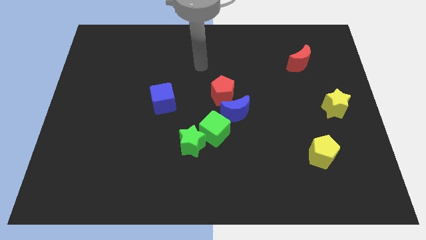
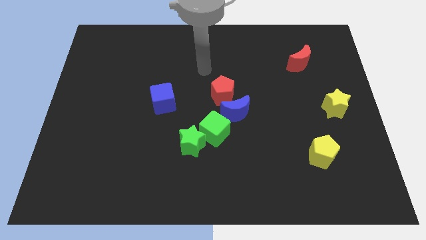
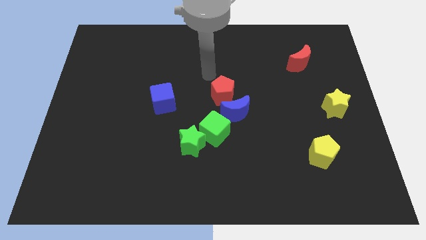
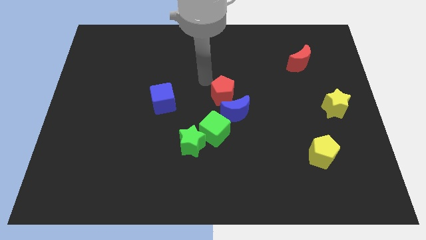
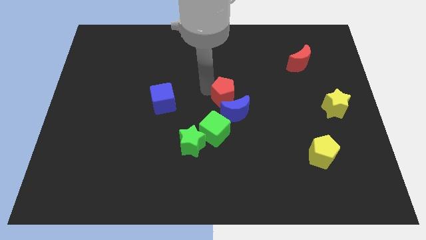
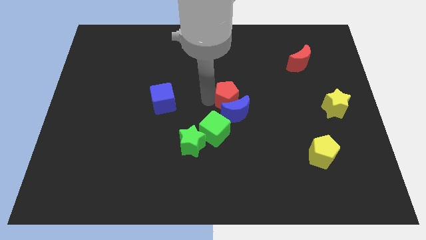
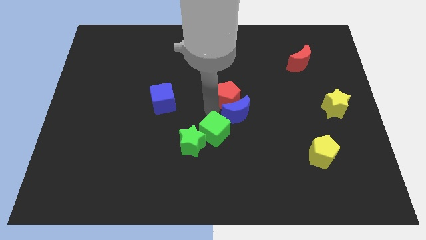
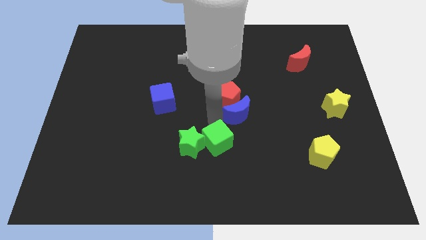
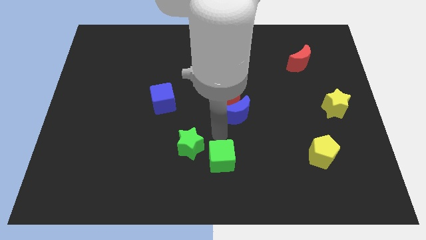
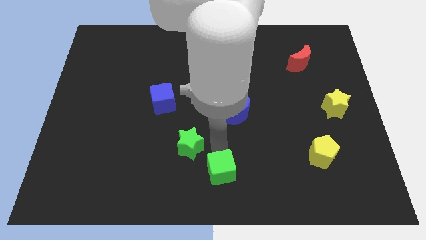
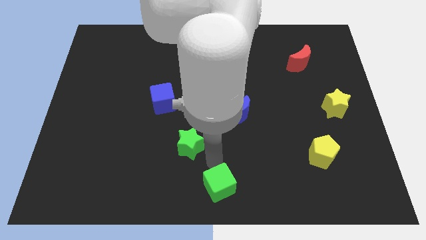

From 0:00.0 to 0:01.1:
move the green star away from the green cube

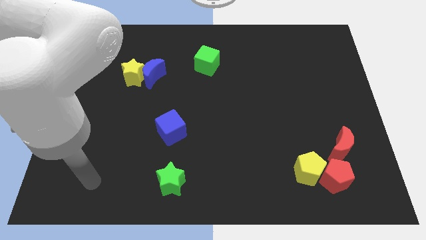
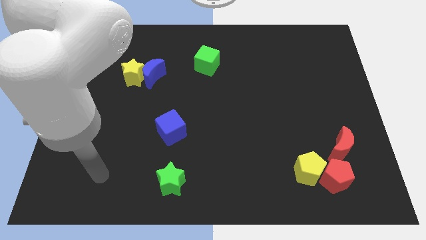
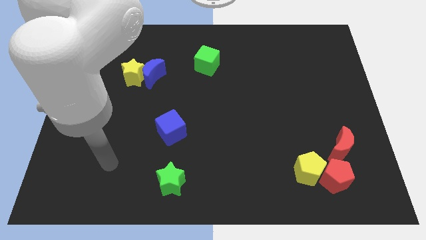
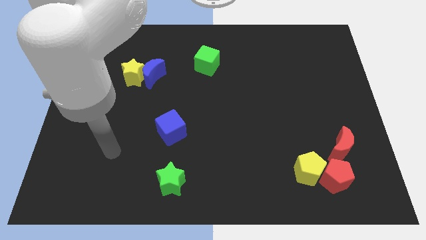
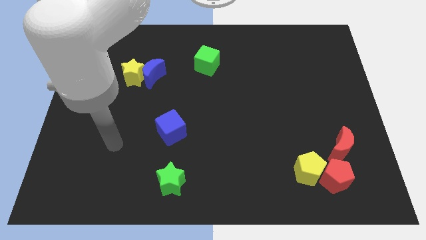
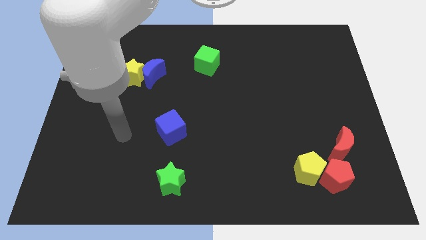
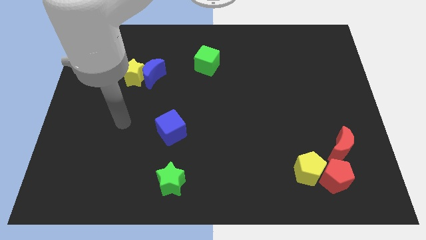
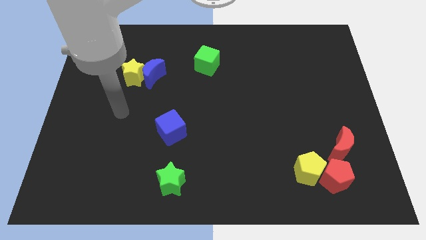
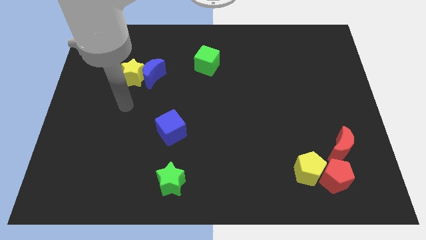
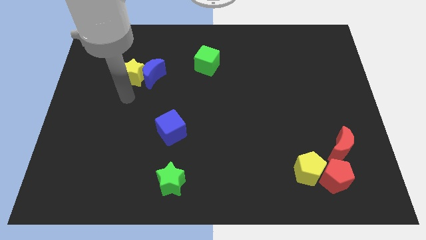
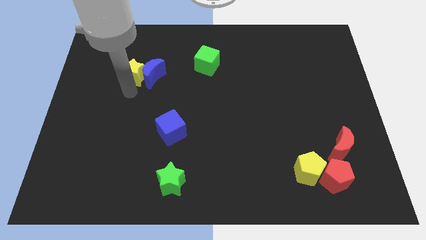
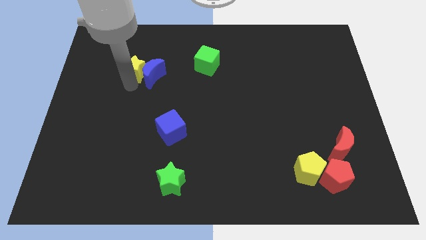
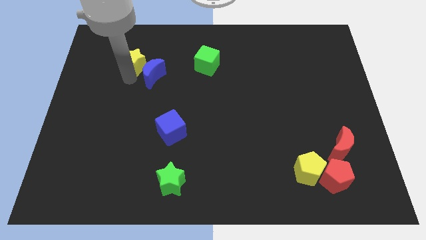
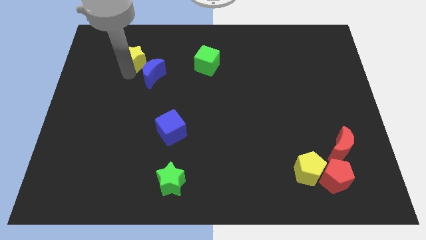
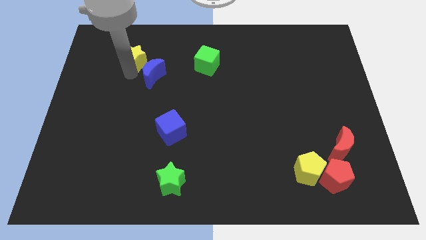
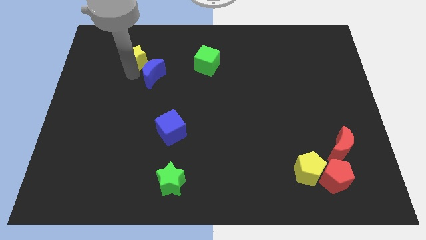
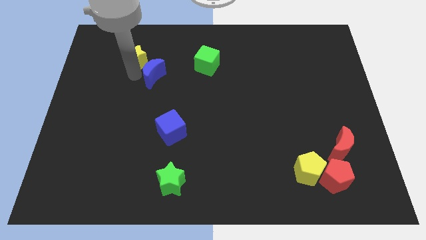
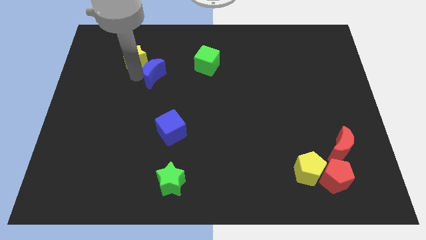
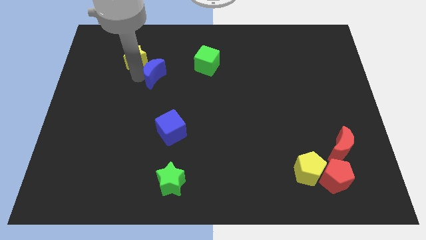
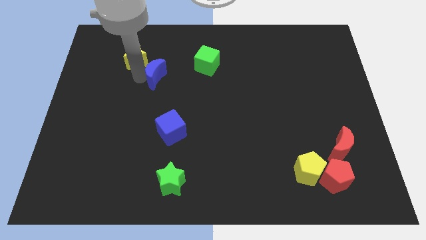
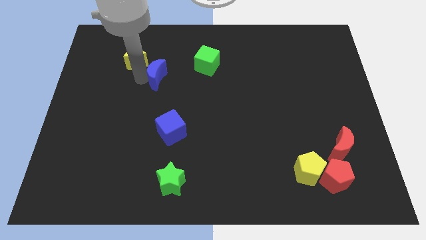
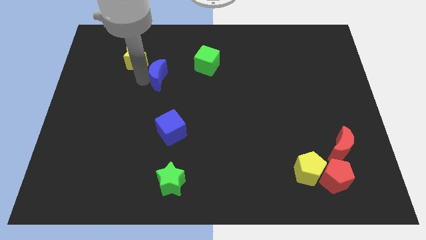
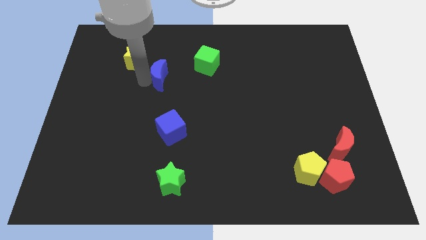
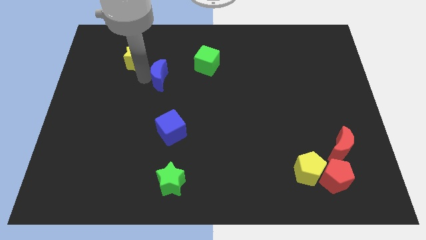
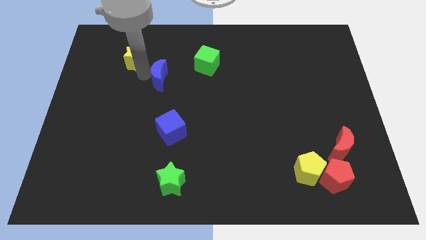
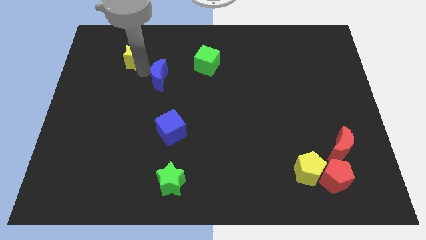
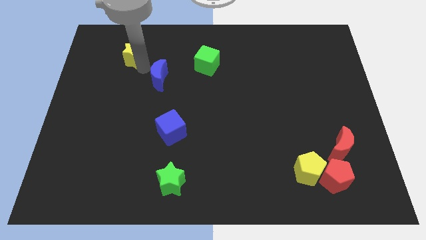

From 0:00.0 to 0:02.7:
move the blue moon away from the yellow star

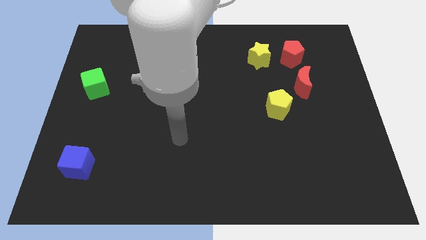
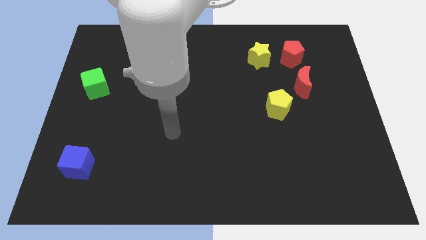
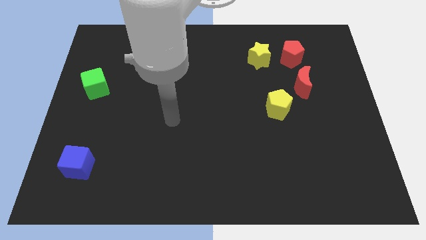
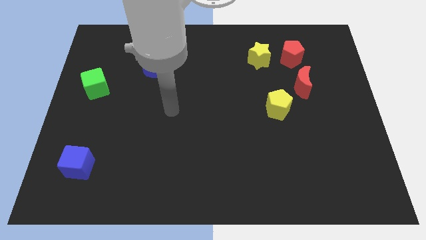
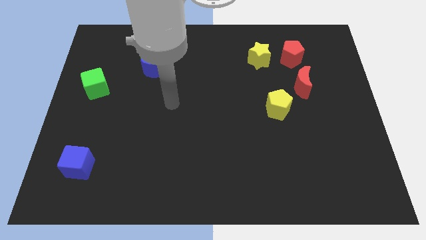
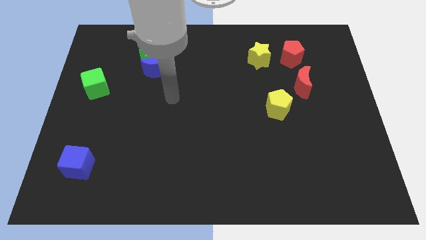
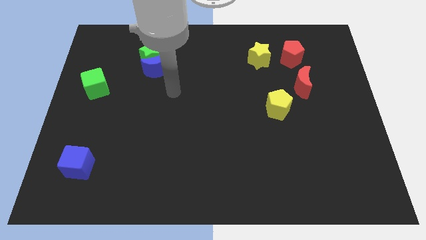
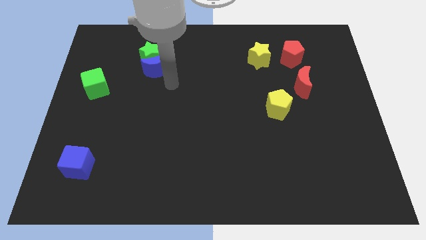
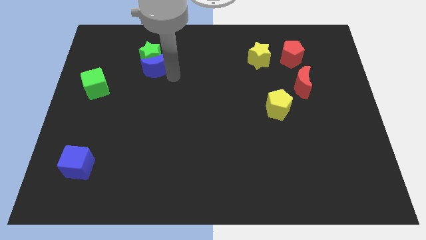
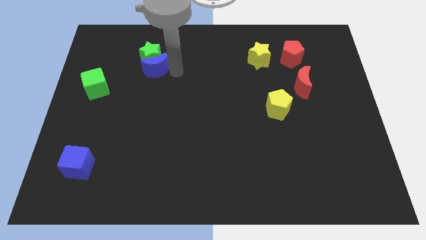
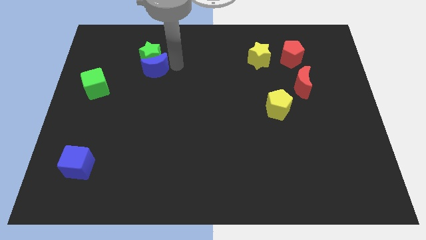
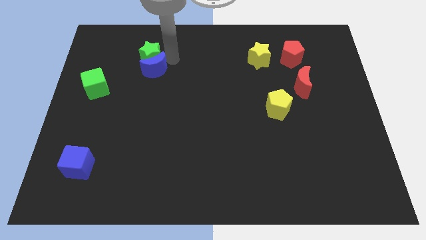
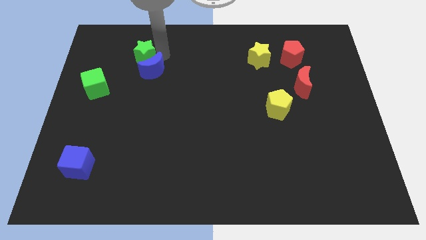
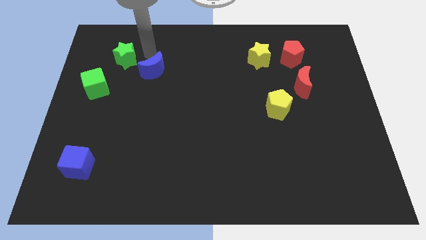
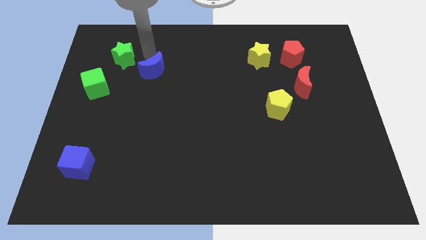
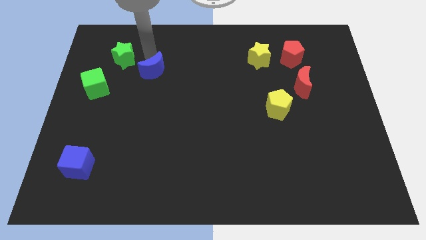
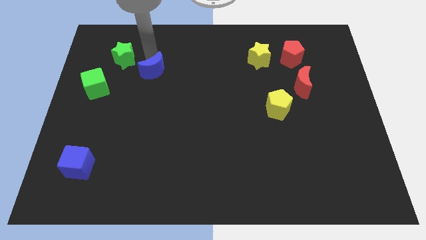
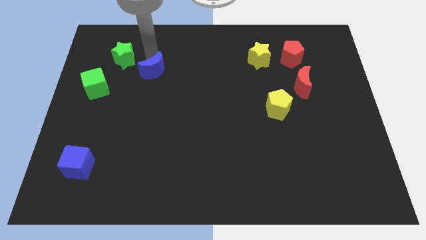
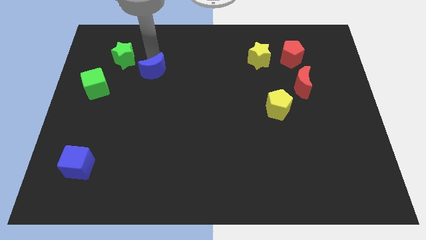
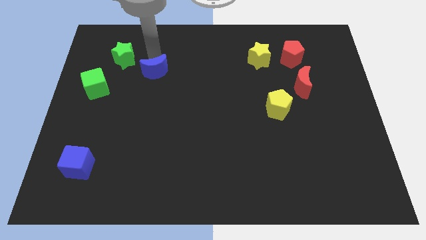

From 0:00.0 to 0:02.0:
separate the blue moon from the green star

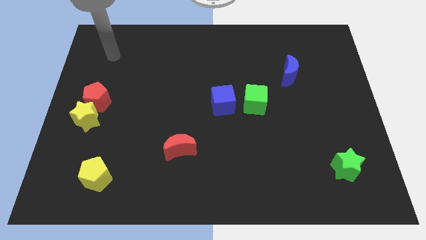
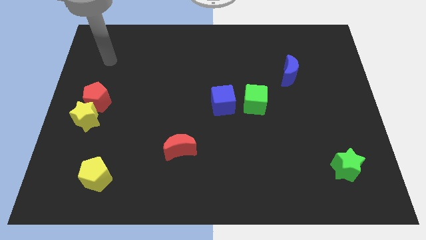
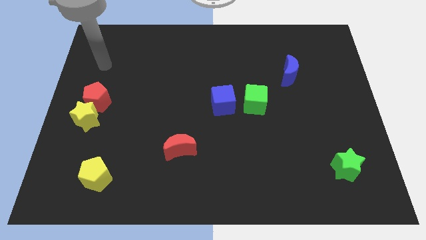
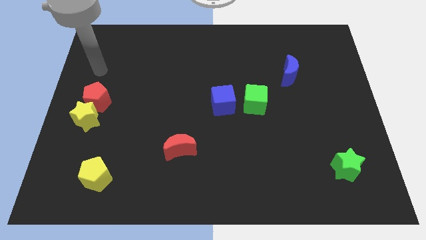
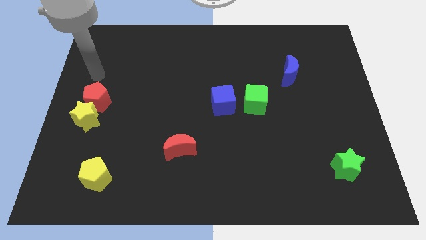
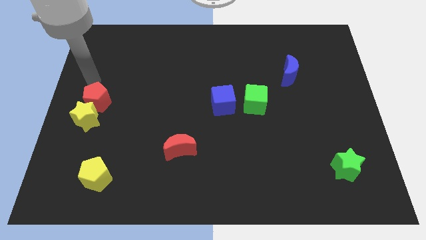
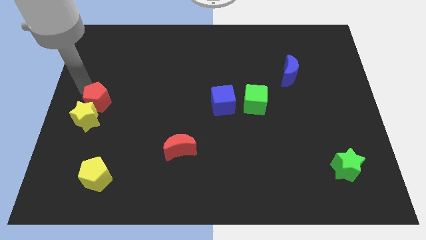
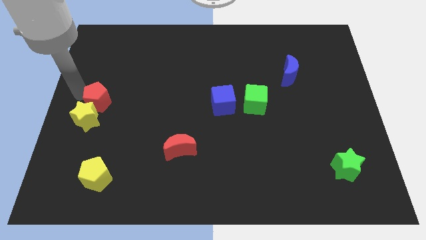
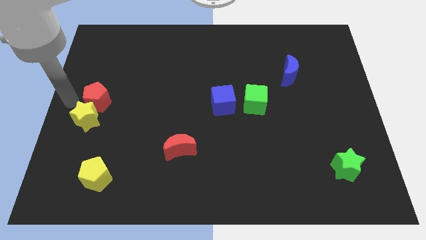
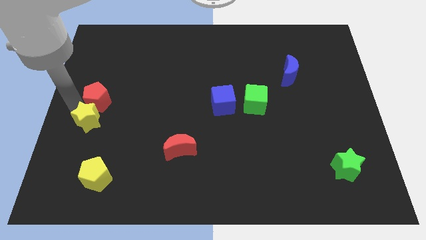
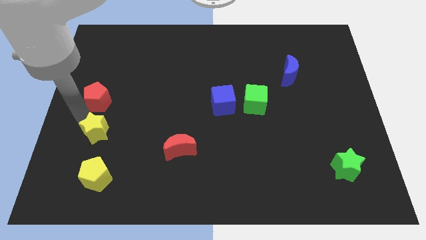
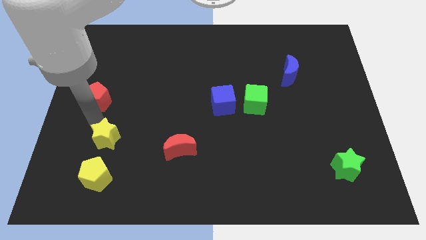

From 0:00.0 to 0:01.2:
separate the red pentagon from the yellow star

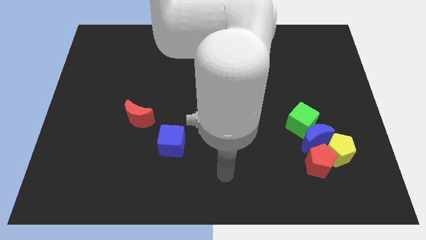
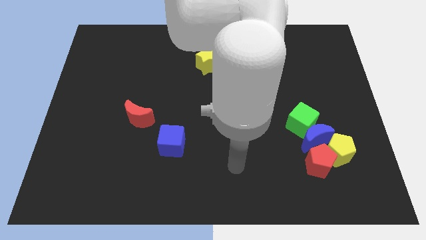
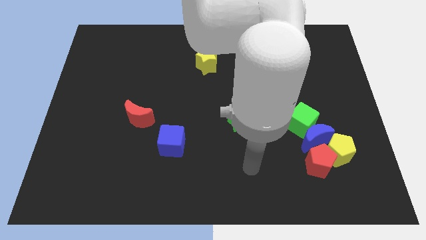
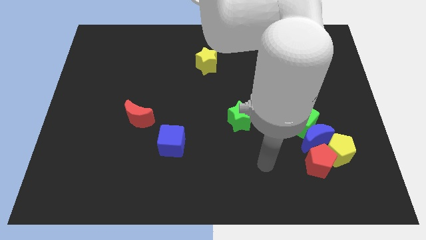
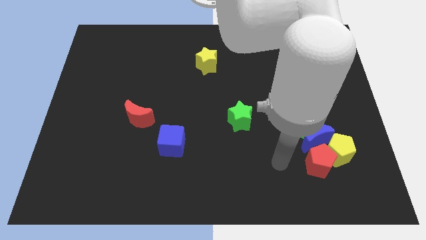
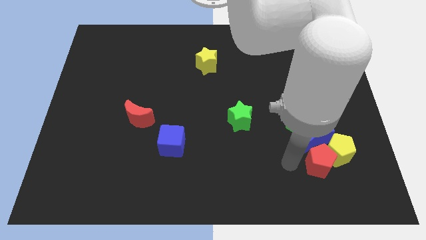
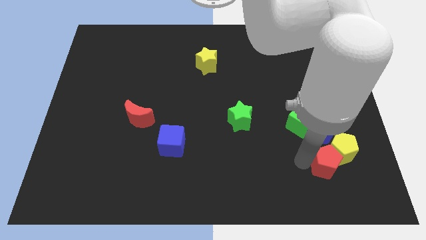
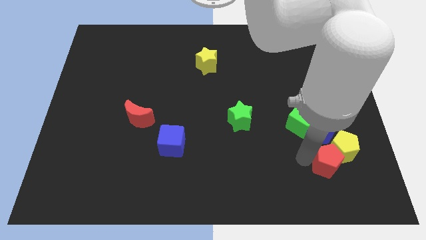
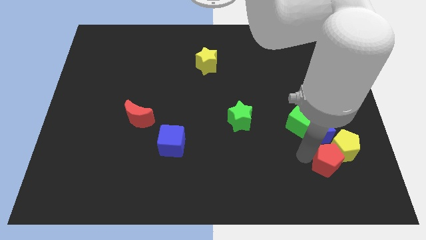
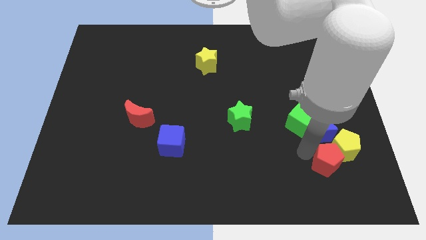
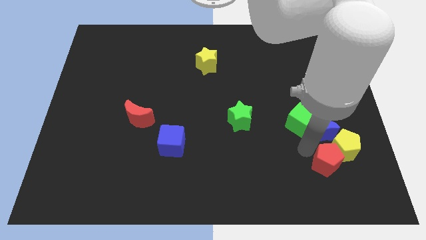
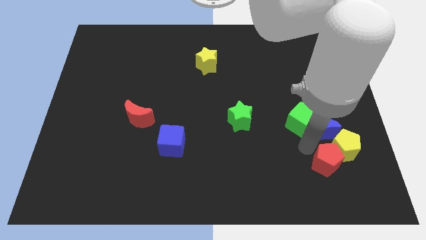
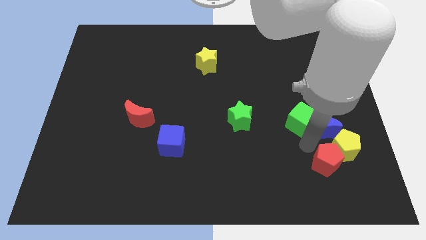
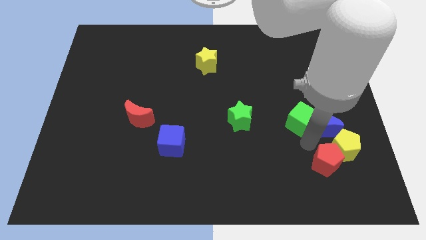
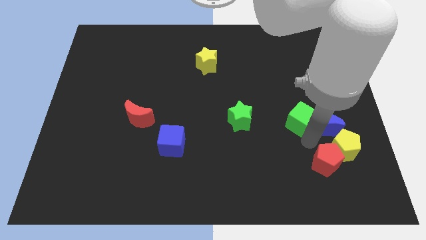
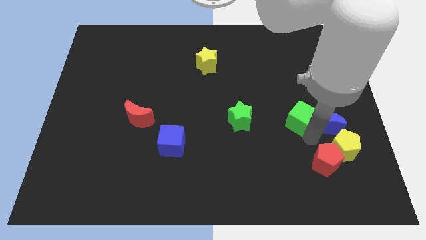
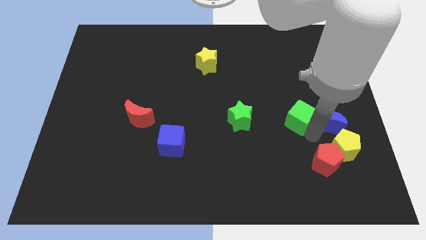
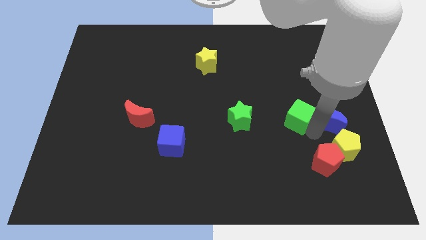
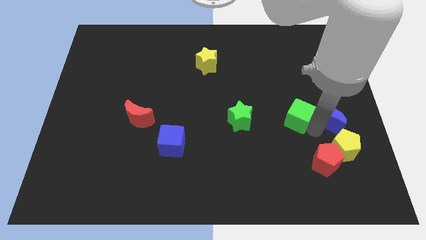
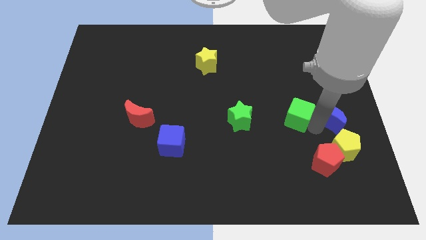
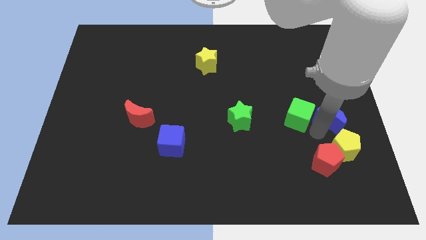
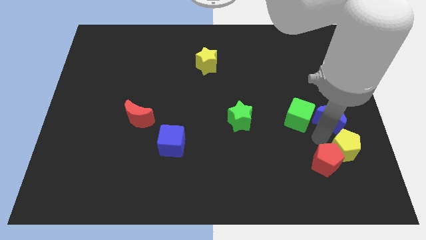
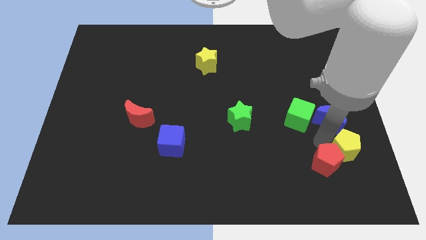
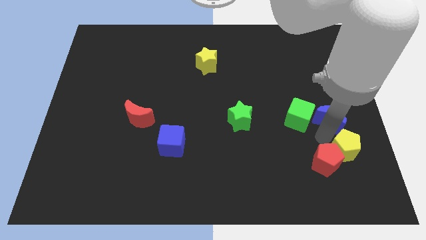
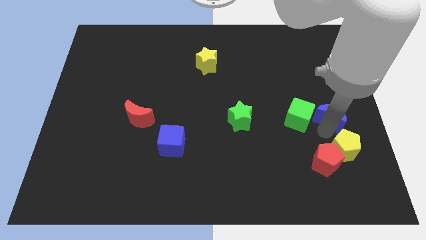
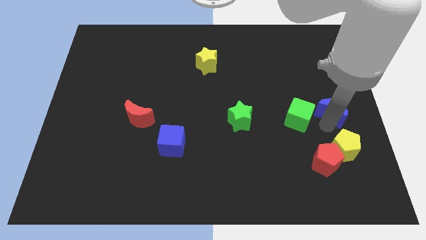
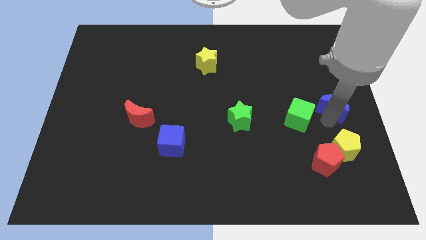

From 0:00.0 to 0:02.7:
separate the blue moon from the clump
